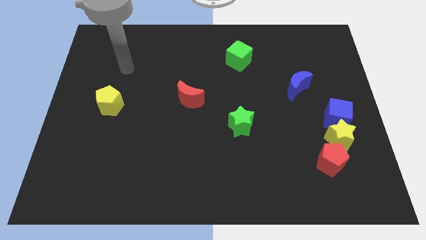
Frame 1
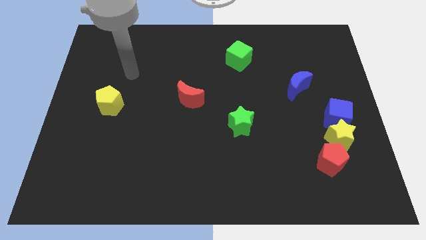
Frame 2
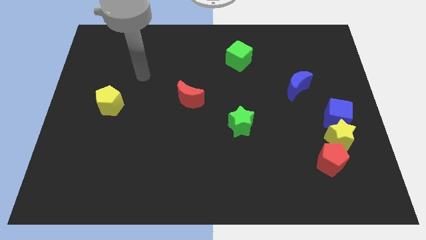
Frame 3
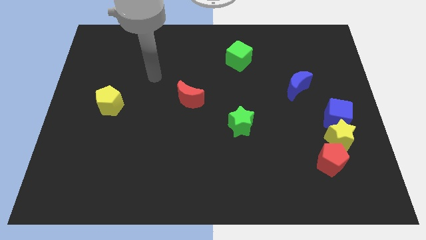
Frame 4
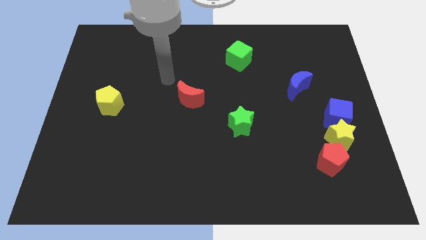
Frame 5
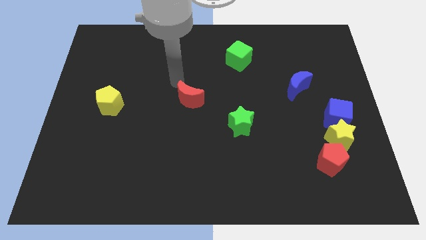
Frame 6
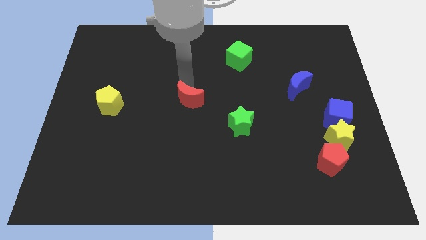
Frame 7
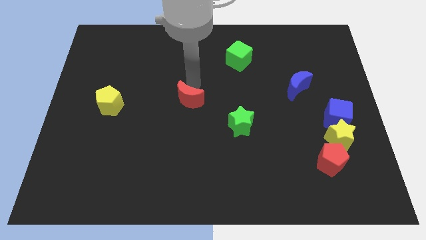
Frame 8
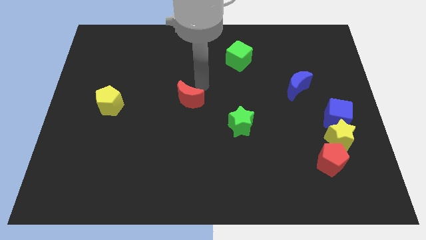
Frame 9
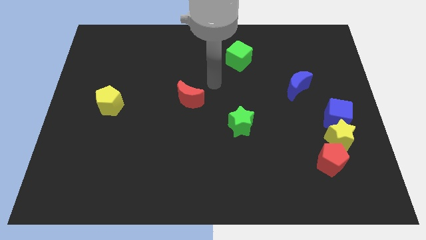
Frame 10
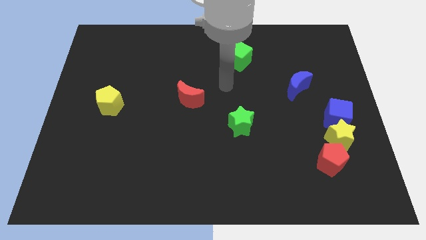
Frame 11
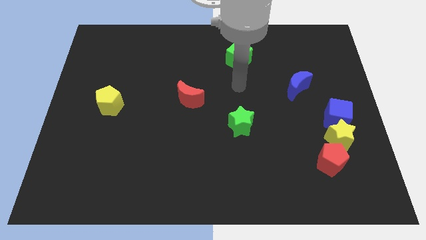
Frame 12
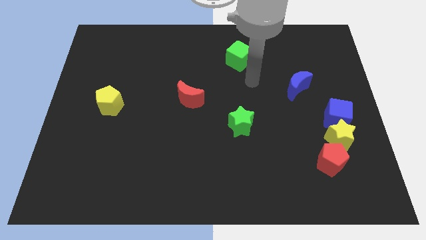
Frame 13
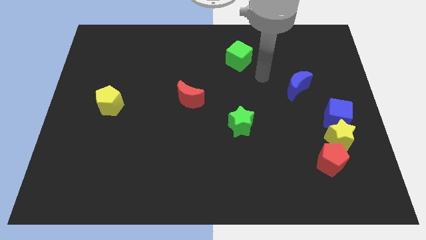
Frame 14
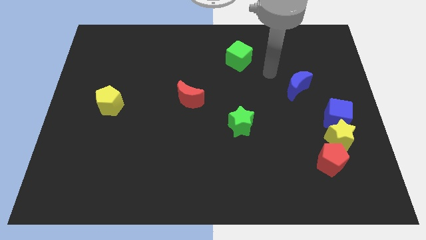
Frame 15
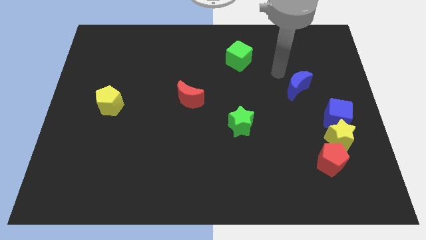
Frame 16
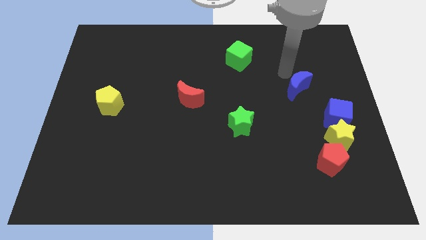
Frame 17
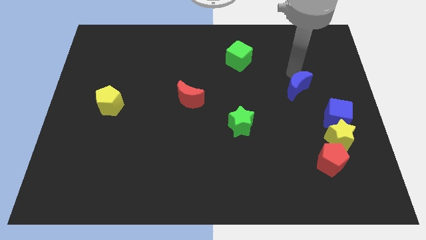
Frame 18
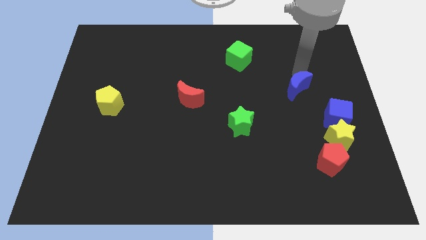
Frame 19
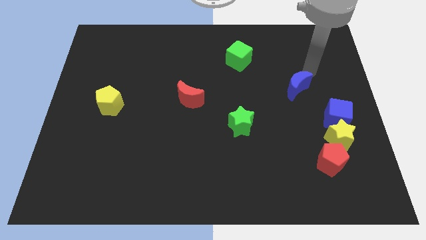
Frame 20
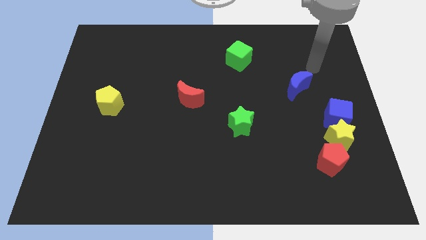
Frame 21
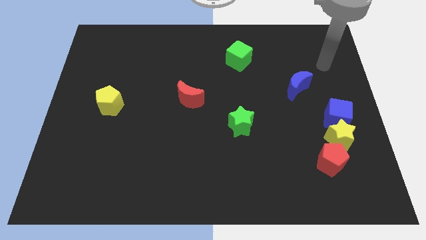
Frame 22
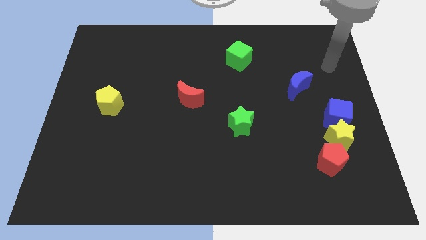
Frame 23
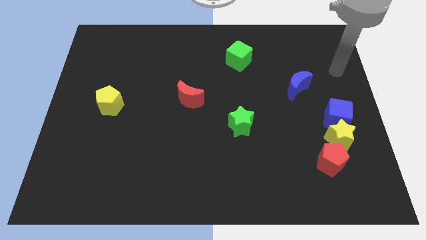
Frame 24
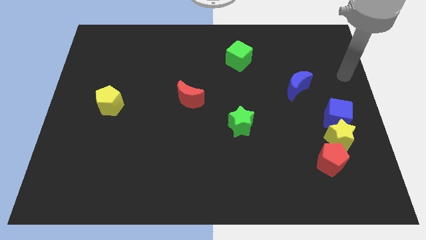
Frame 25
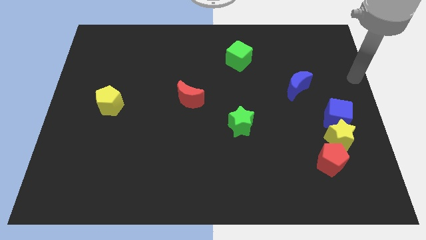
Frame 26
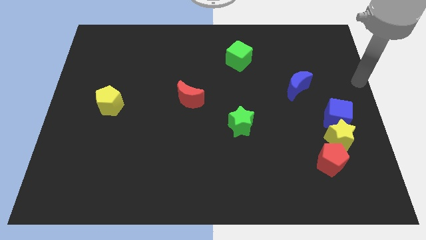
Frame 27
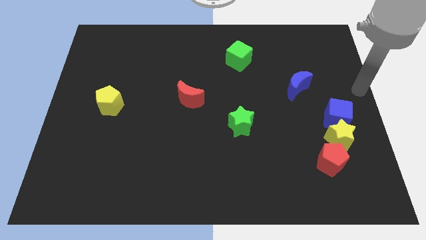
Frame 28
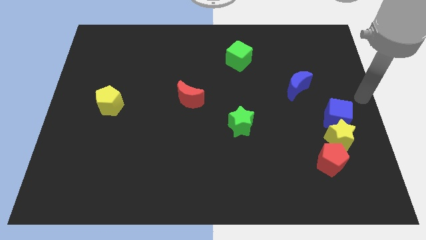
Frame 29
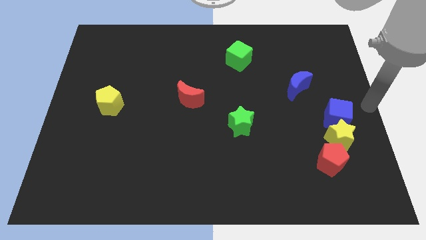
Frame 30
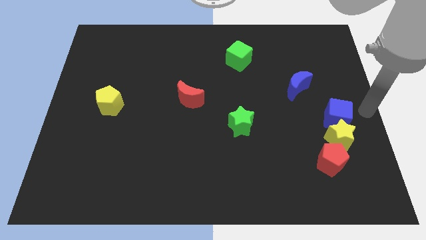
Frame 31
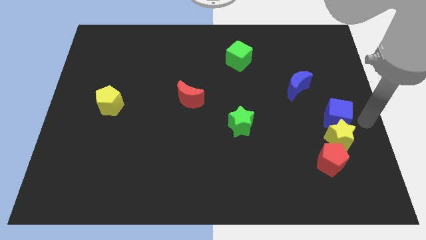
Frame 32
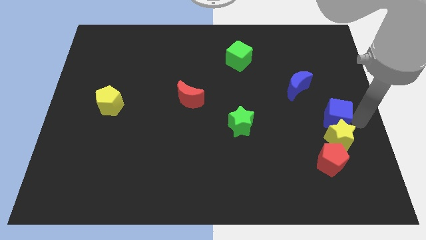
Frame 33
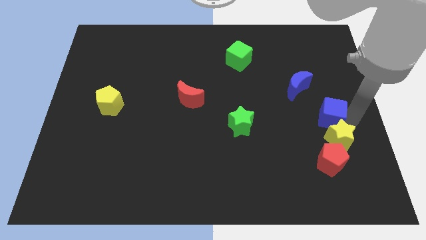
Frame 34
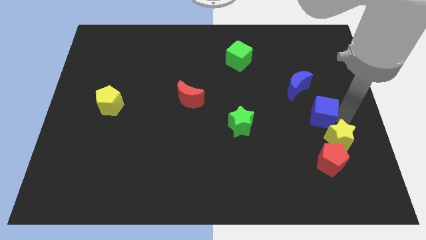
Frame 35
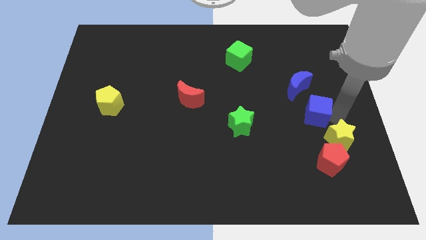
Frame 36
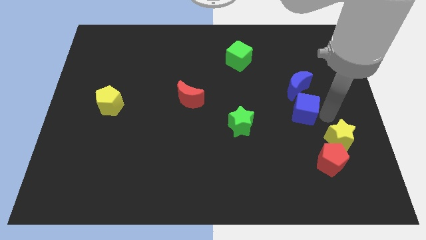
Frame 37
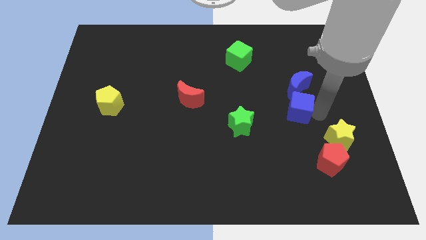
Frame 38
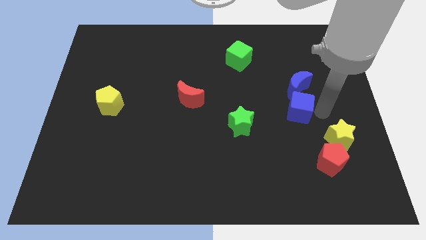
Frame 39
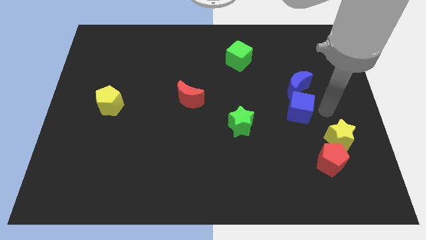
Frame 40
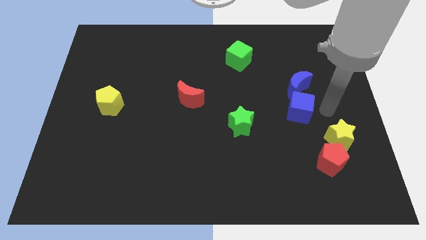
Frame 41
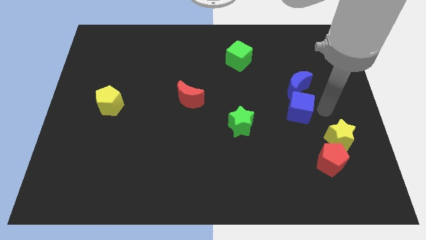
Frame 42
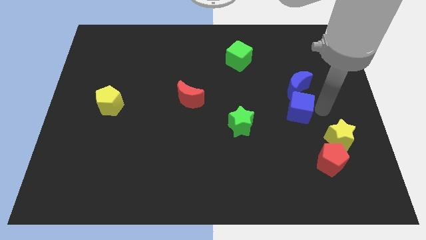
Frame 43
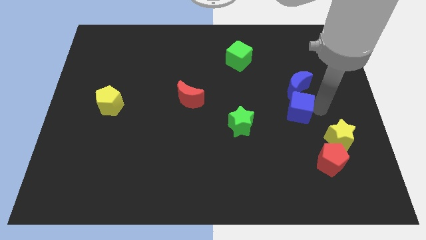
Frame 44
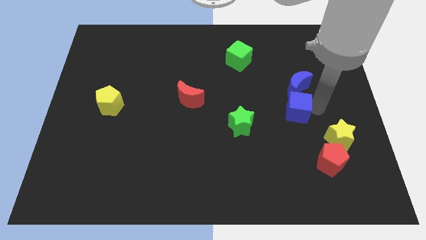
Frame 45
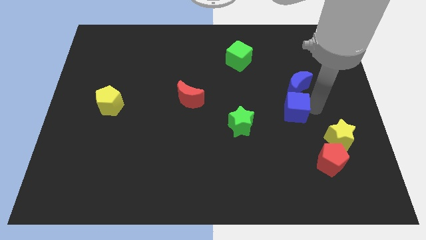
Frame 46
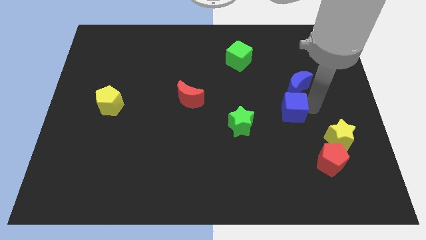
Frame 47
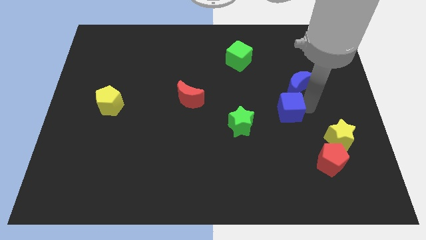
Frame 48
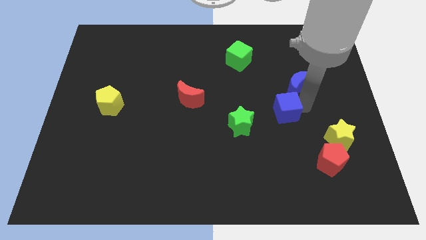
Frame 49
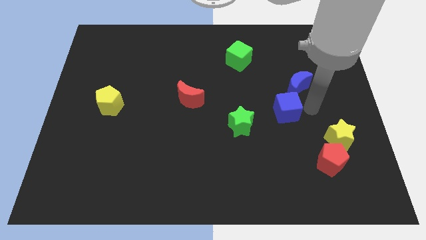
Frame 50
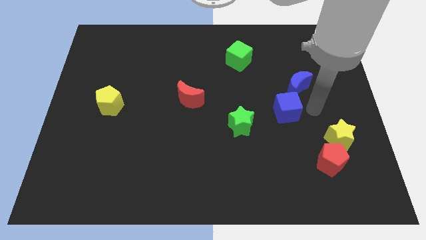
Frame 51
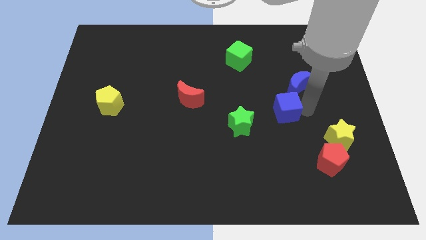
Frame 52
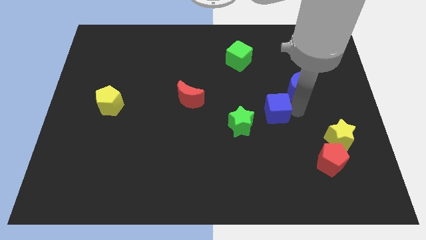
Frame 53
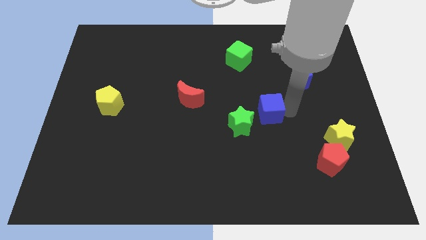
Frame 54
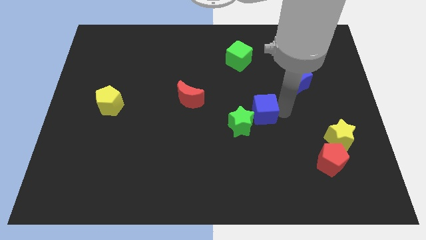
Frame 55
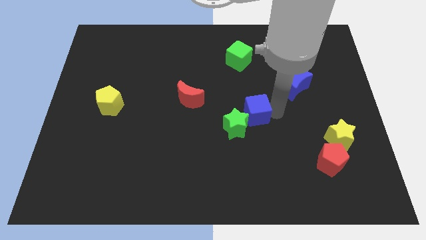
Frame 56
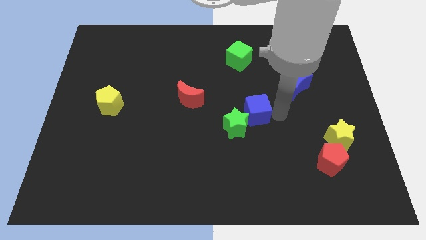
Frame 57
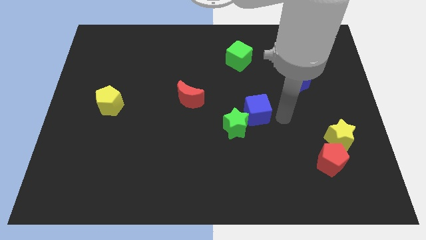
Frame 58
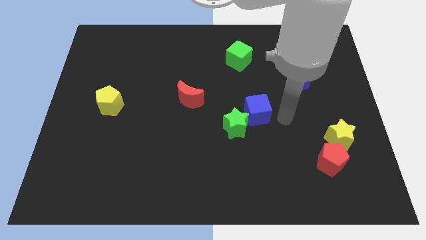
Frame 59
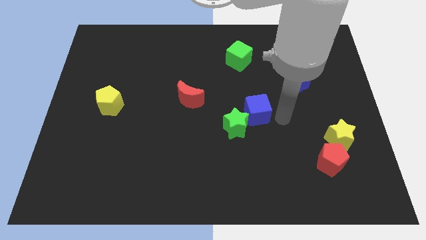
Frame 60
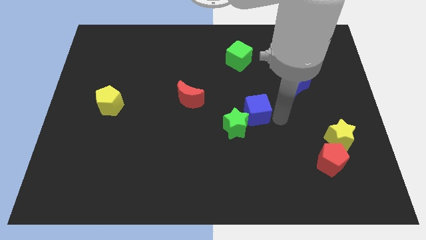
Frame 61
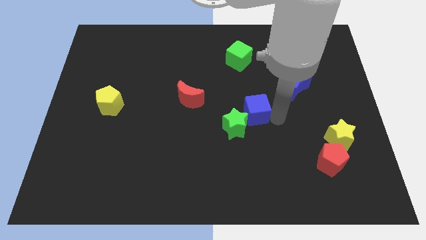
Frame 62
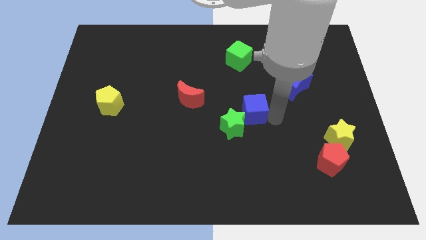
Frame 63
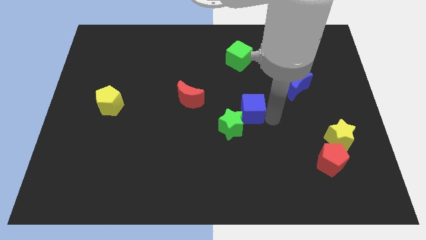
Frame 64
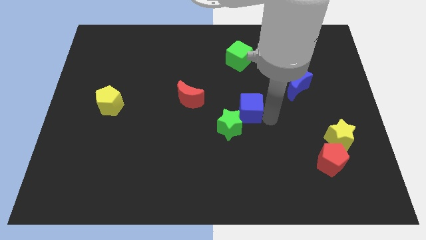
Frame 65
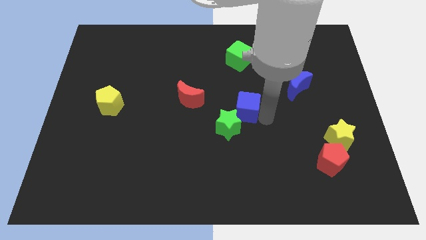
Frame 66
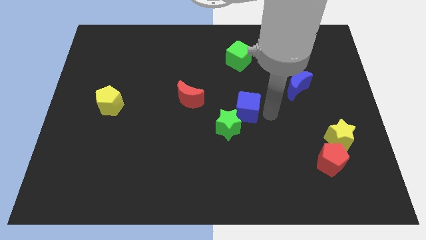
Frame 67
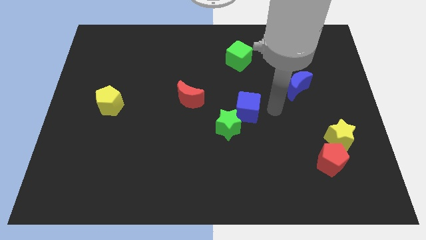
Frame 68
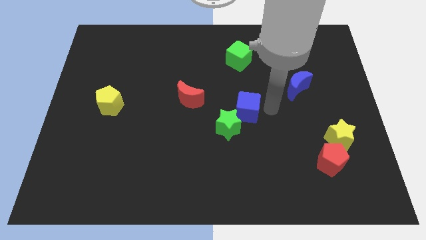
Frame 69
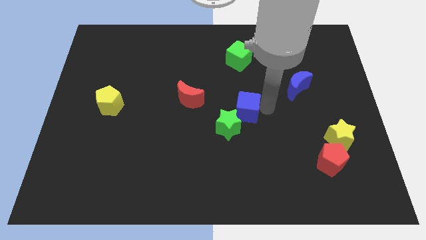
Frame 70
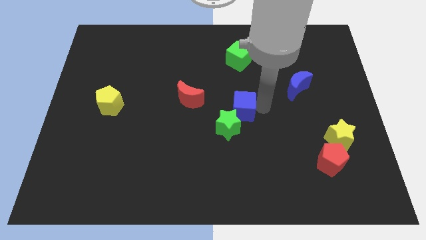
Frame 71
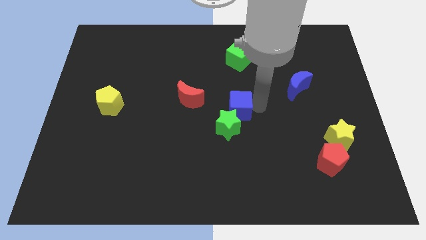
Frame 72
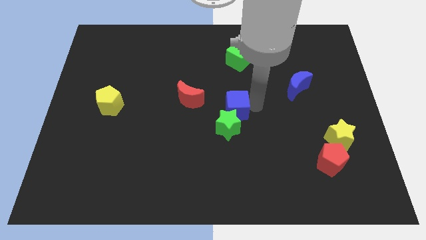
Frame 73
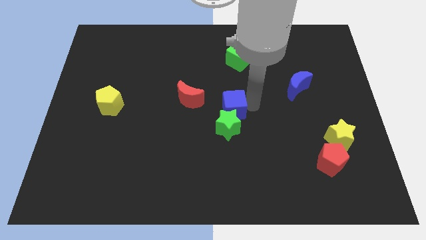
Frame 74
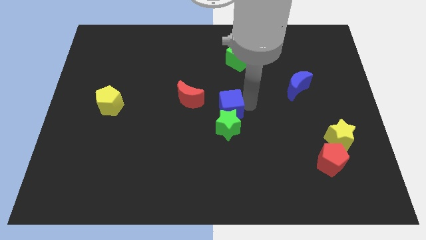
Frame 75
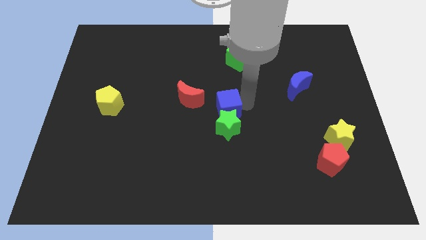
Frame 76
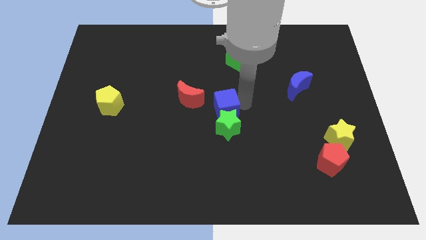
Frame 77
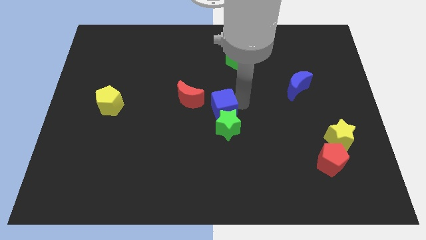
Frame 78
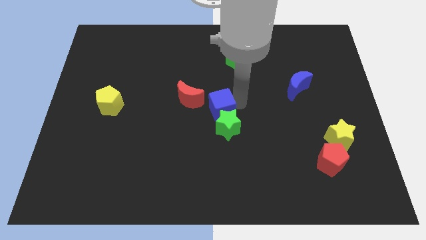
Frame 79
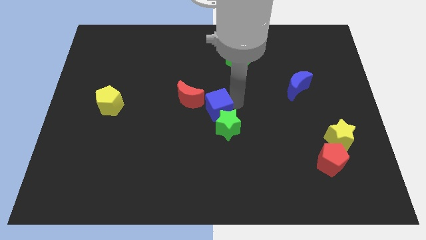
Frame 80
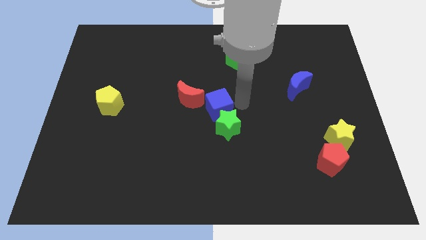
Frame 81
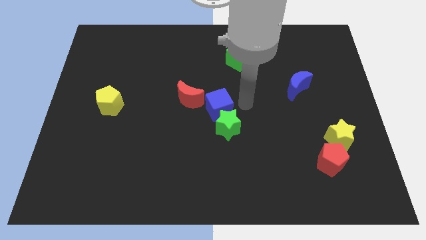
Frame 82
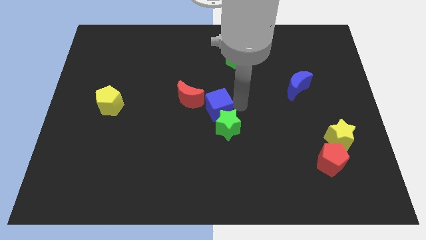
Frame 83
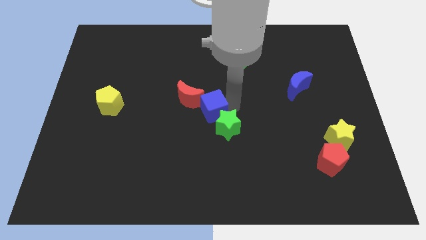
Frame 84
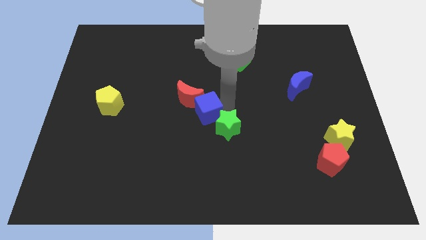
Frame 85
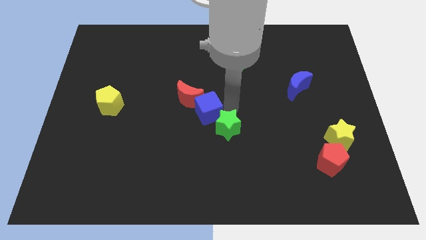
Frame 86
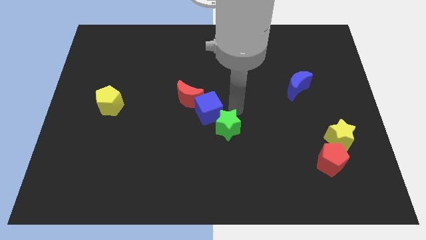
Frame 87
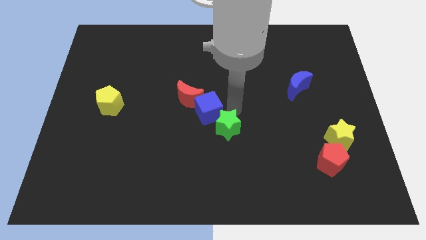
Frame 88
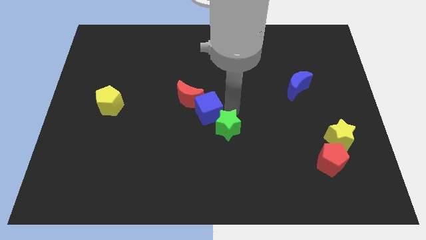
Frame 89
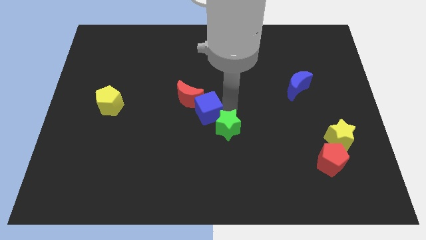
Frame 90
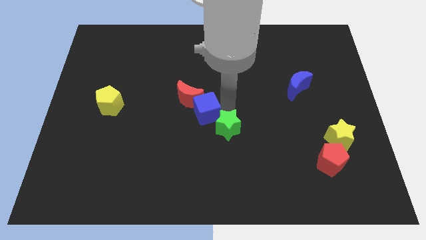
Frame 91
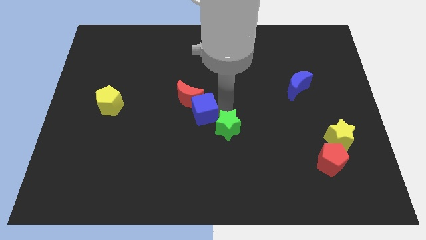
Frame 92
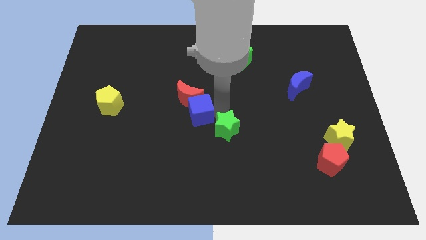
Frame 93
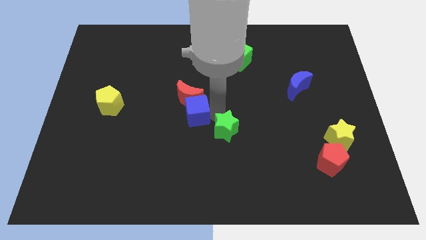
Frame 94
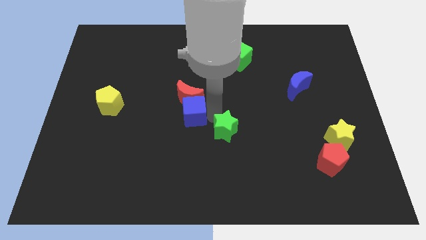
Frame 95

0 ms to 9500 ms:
move the blue cube diagonally down and to the left of the red moon
